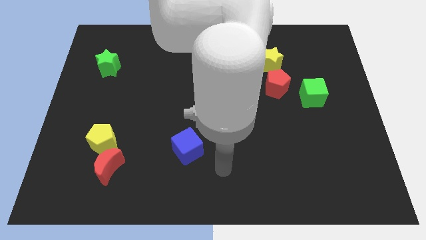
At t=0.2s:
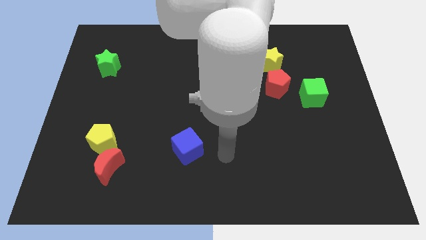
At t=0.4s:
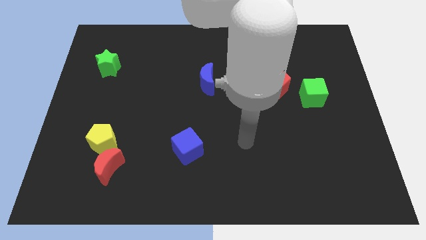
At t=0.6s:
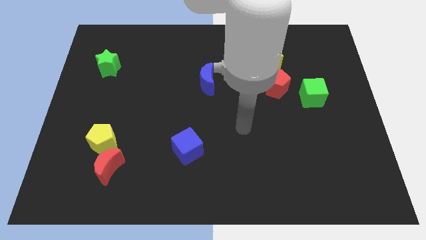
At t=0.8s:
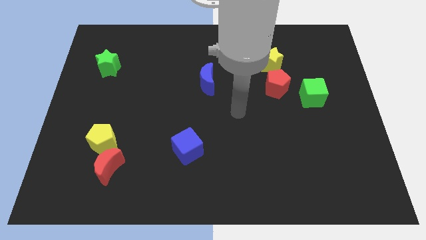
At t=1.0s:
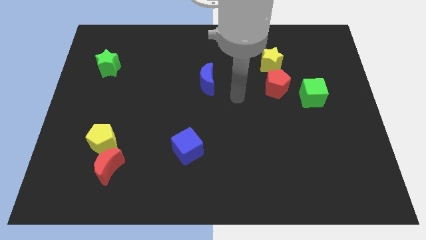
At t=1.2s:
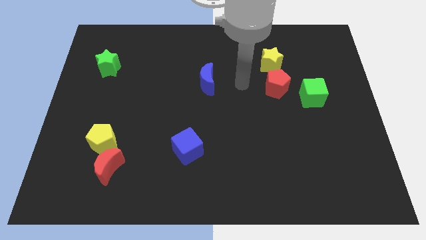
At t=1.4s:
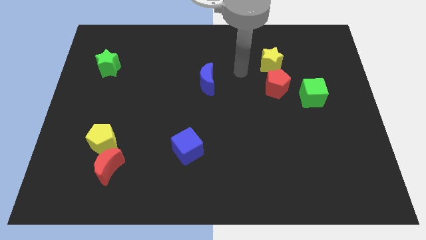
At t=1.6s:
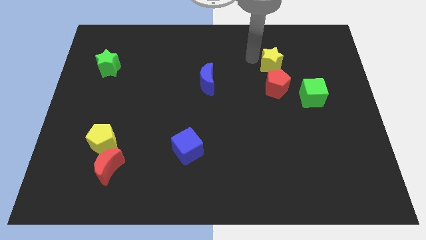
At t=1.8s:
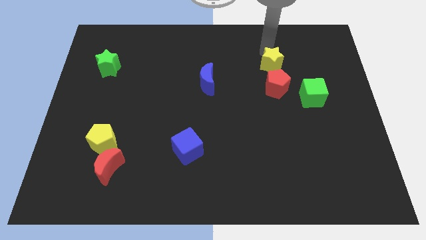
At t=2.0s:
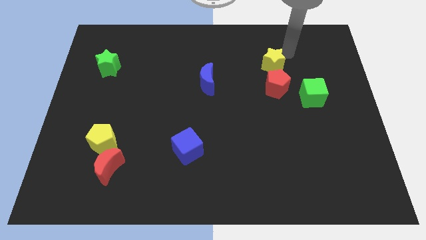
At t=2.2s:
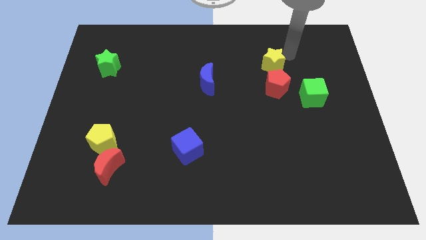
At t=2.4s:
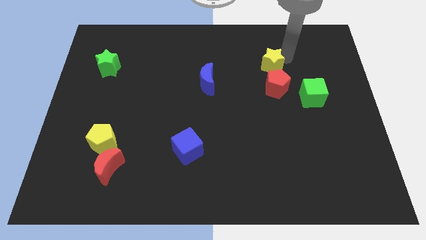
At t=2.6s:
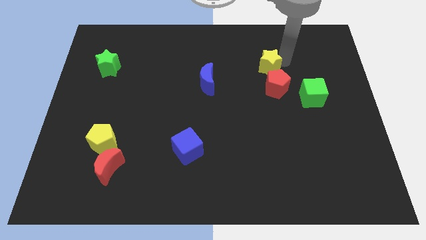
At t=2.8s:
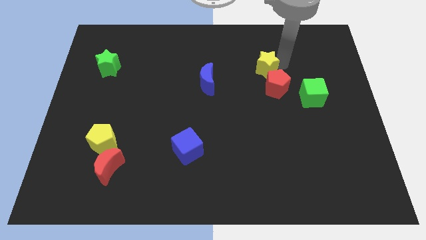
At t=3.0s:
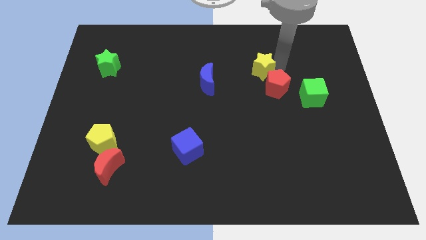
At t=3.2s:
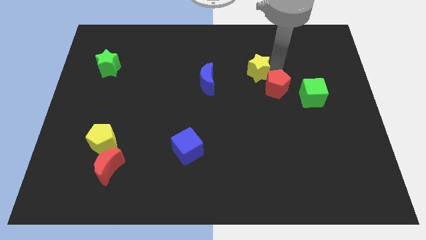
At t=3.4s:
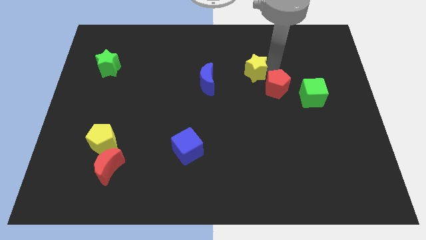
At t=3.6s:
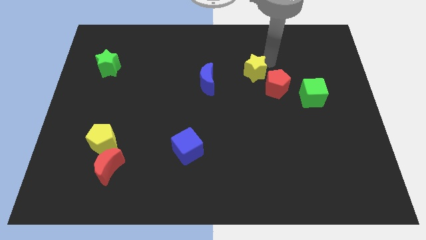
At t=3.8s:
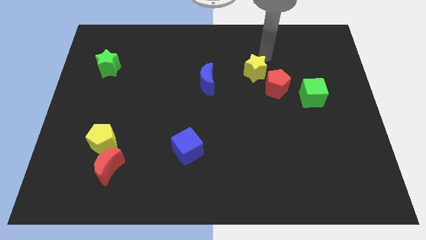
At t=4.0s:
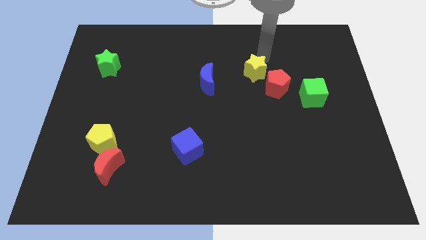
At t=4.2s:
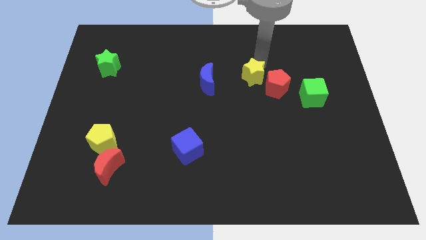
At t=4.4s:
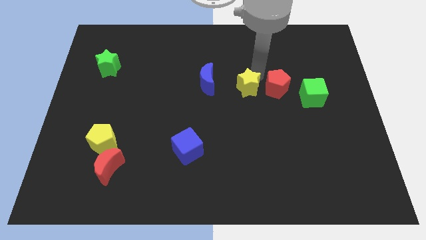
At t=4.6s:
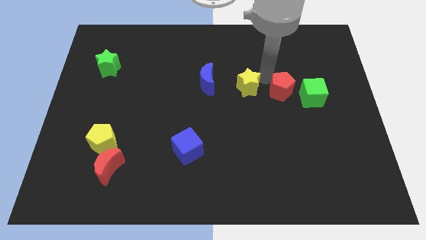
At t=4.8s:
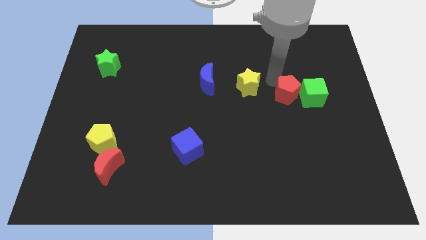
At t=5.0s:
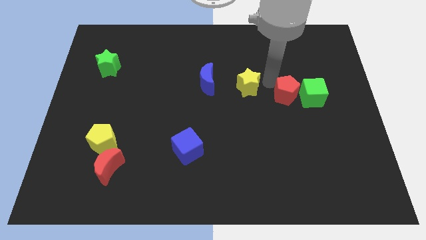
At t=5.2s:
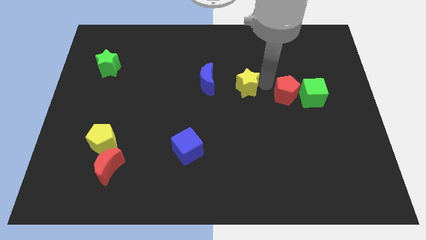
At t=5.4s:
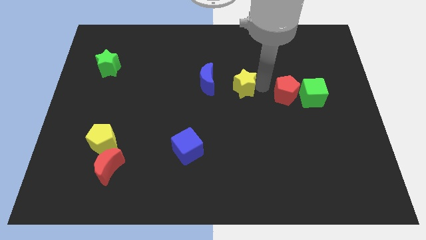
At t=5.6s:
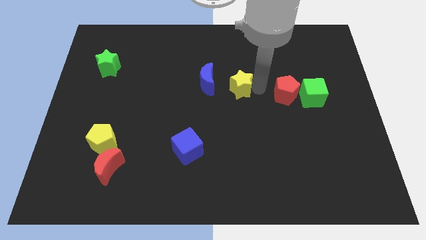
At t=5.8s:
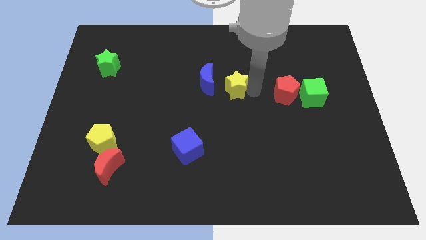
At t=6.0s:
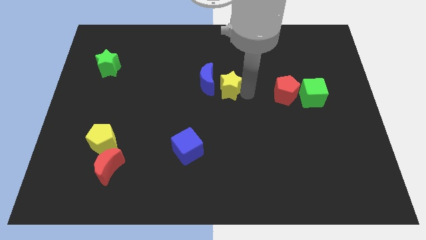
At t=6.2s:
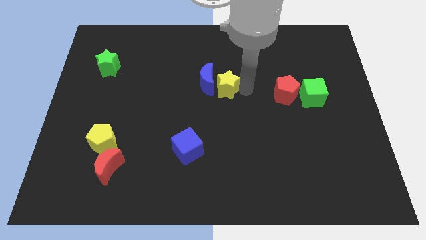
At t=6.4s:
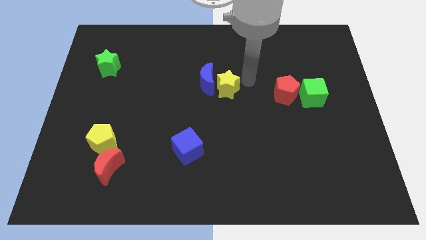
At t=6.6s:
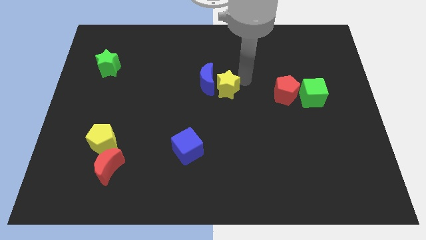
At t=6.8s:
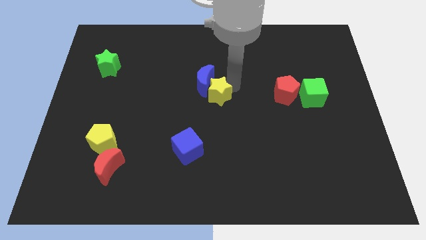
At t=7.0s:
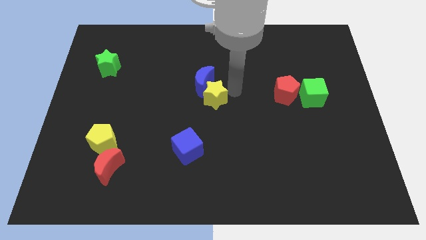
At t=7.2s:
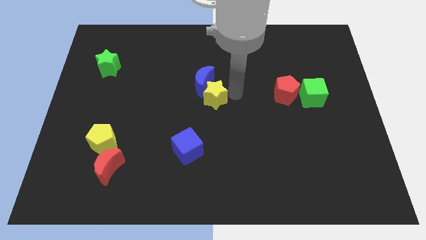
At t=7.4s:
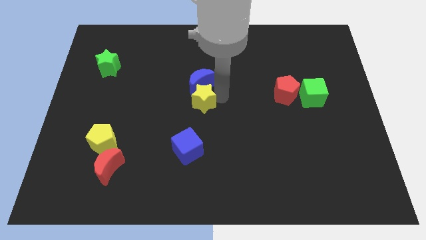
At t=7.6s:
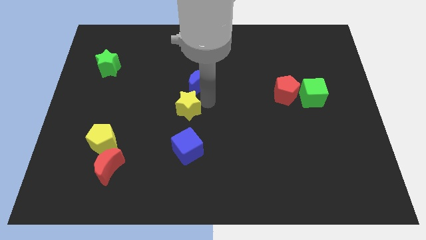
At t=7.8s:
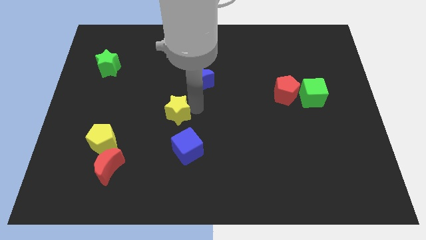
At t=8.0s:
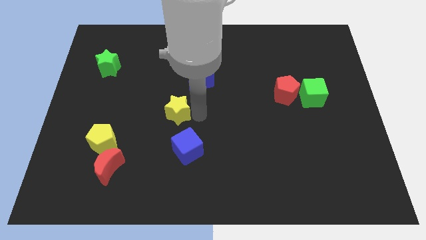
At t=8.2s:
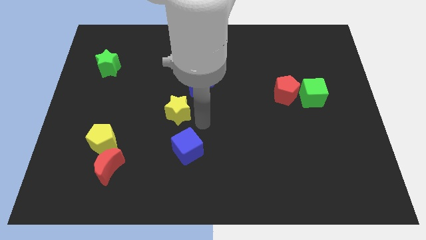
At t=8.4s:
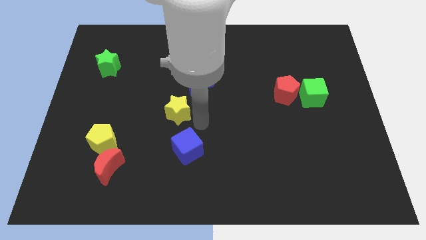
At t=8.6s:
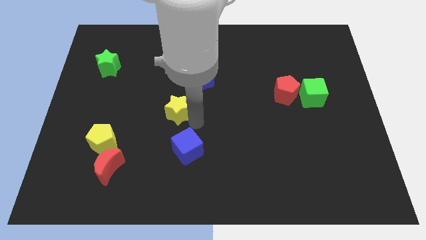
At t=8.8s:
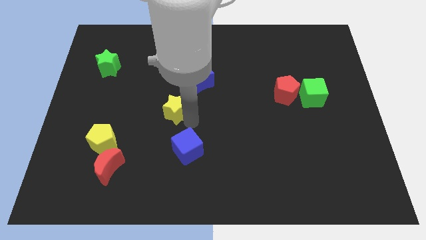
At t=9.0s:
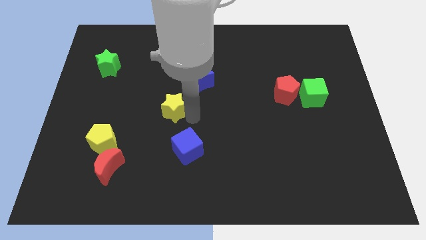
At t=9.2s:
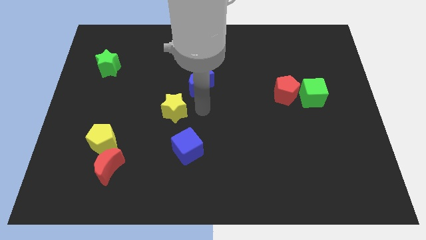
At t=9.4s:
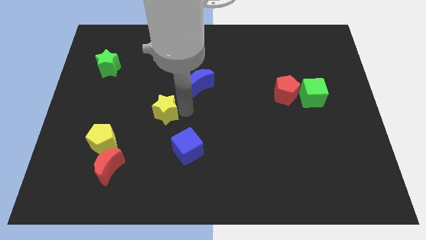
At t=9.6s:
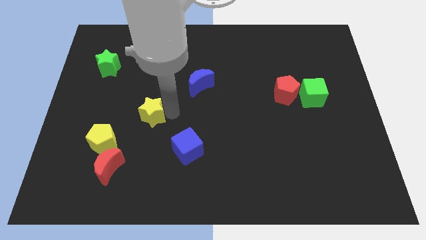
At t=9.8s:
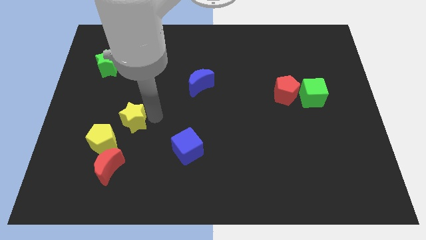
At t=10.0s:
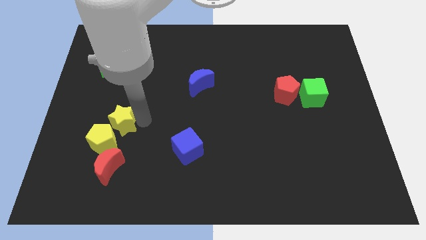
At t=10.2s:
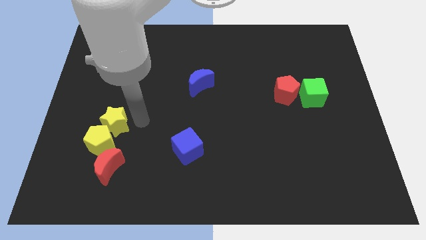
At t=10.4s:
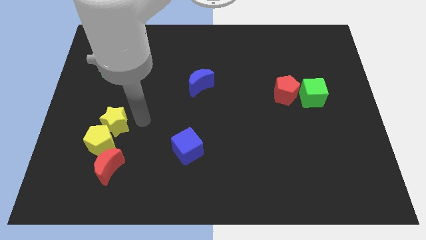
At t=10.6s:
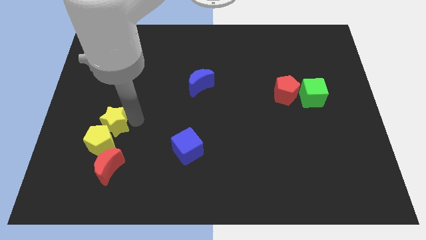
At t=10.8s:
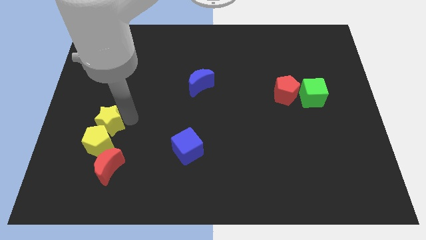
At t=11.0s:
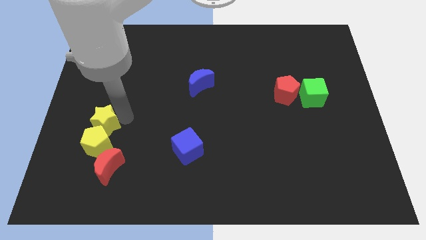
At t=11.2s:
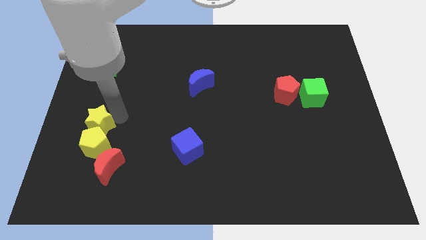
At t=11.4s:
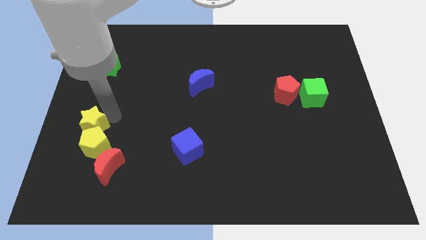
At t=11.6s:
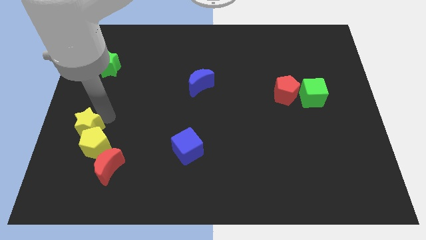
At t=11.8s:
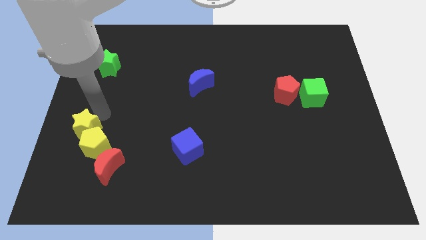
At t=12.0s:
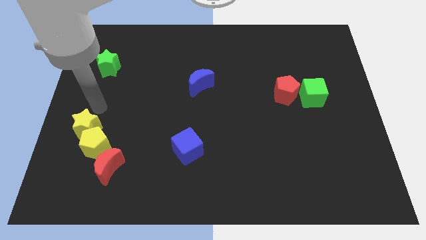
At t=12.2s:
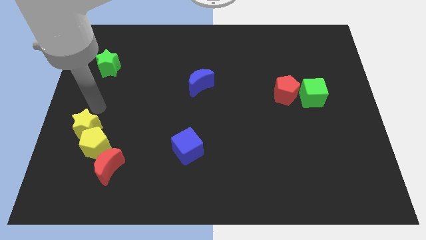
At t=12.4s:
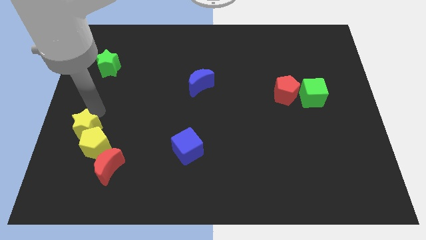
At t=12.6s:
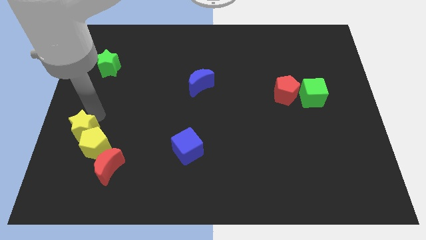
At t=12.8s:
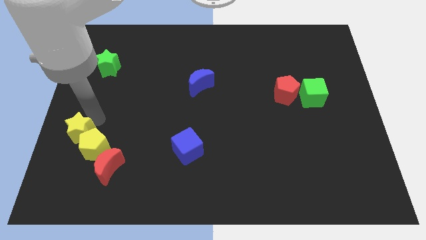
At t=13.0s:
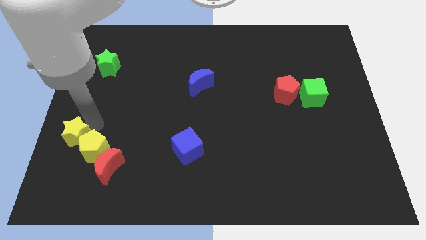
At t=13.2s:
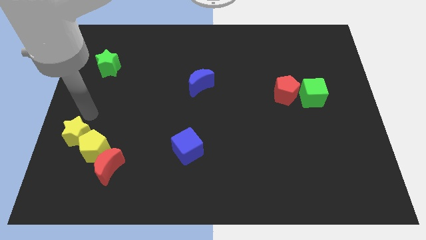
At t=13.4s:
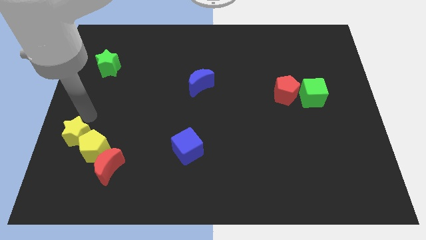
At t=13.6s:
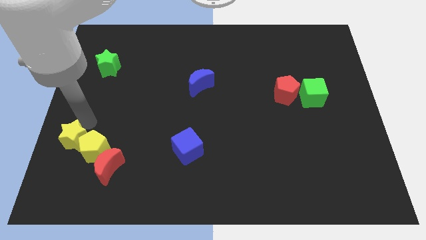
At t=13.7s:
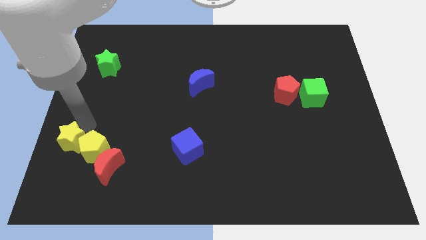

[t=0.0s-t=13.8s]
put the yellow star diagonally down and to the left of the yellow pentagon

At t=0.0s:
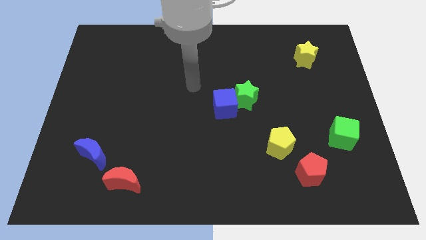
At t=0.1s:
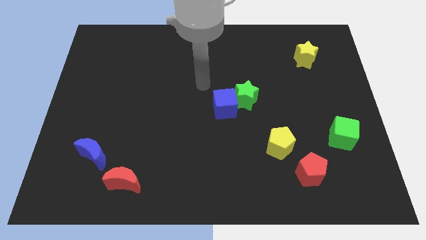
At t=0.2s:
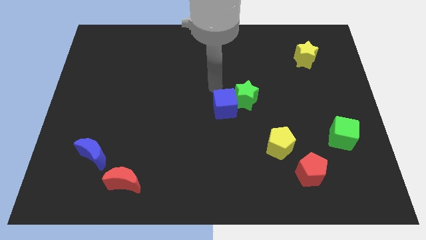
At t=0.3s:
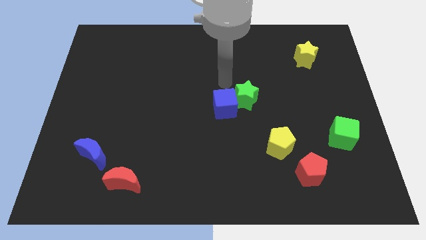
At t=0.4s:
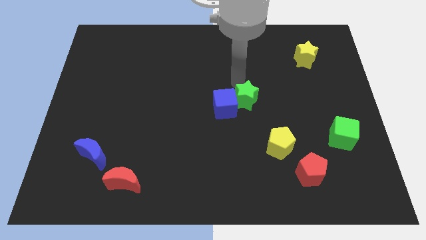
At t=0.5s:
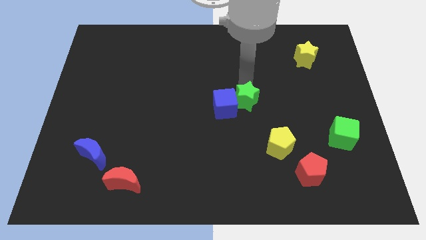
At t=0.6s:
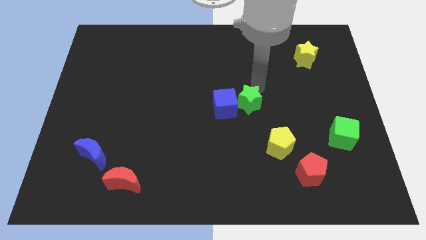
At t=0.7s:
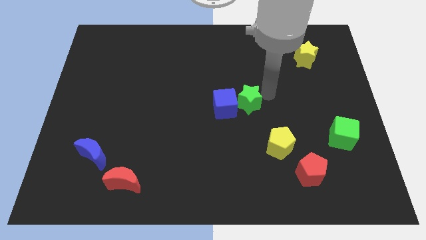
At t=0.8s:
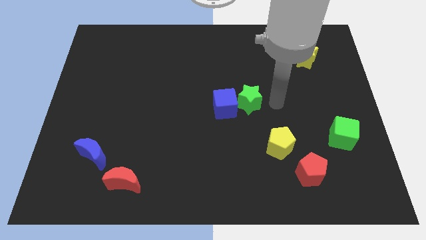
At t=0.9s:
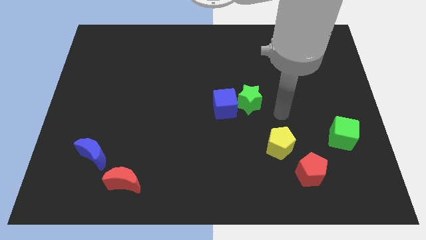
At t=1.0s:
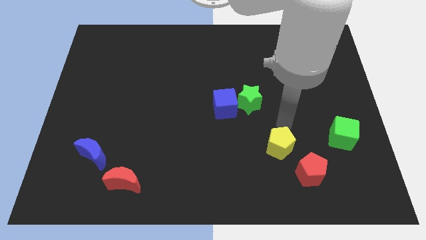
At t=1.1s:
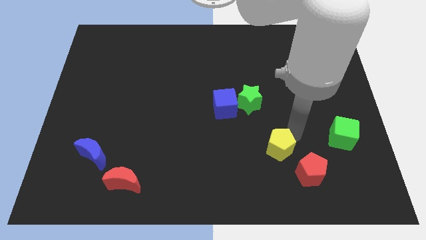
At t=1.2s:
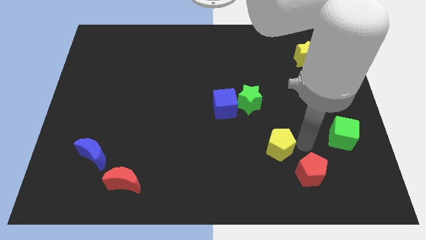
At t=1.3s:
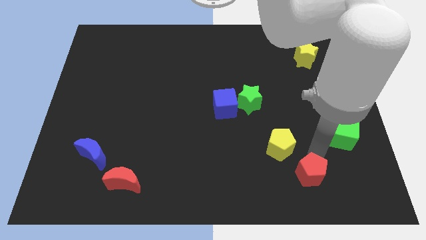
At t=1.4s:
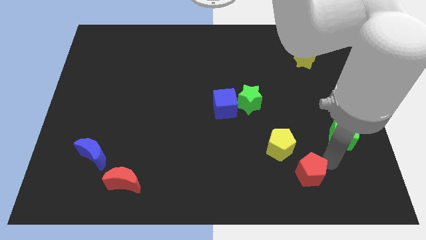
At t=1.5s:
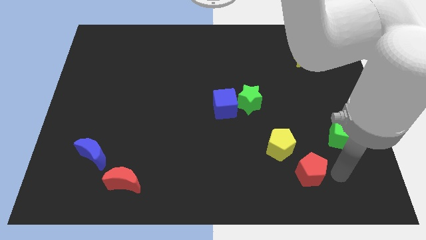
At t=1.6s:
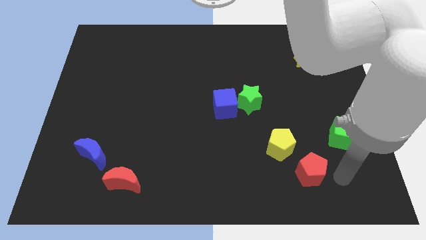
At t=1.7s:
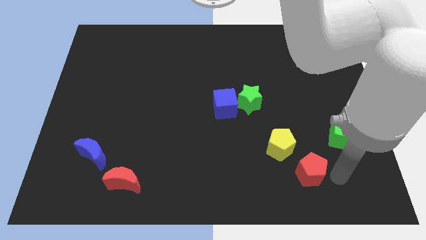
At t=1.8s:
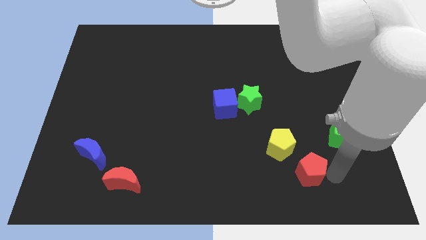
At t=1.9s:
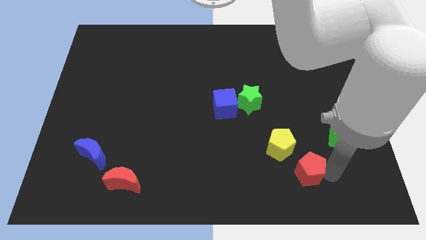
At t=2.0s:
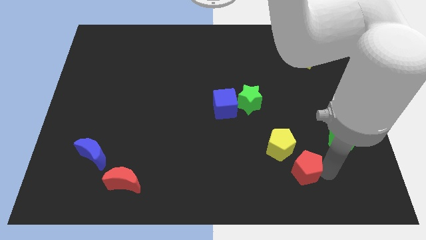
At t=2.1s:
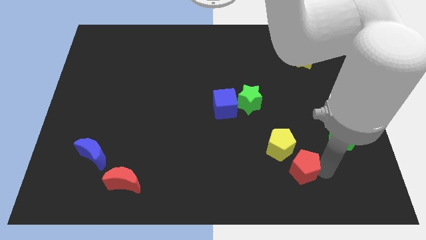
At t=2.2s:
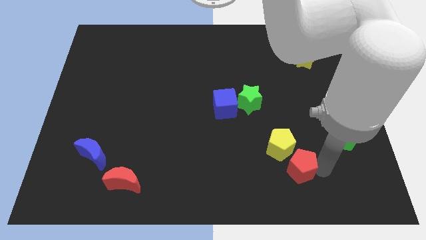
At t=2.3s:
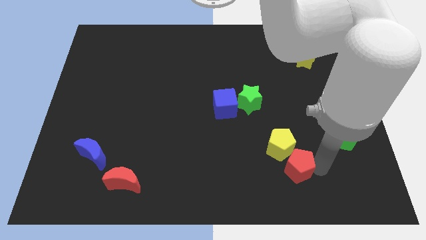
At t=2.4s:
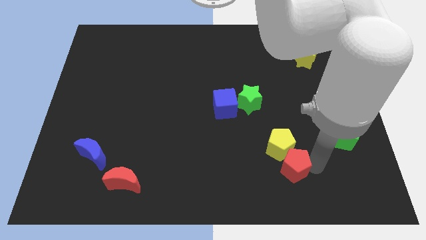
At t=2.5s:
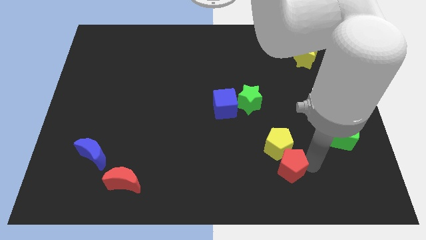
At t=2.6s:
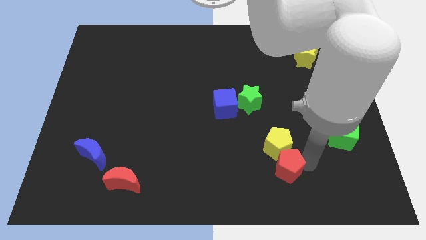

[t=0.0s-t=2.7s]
push the red pentagon to the bottom left of the yellow pentagon
